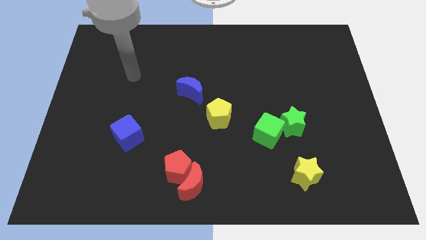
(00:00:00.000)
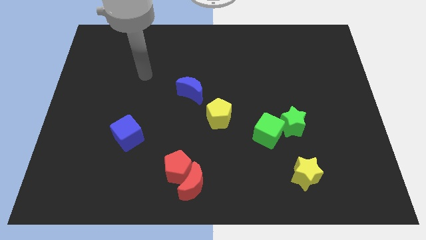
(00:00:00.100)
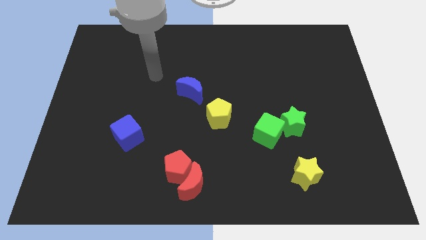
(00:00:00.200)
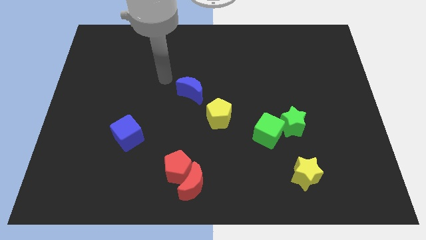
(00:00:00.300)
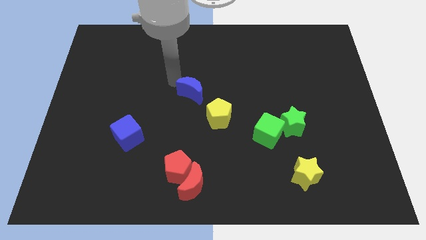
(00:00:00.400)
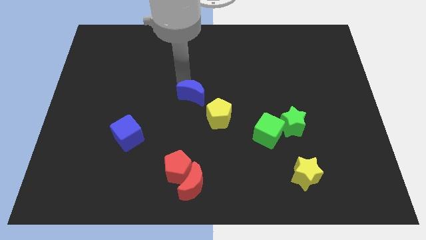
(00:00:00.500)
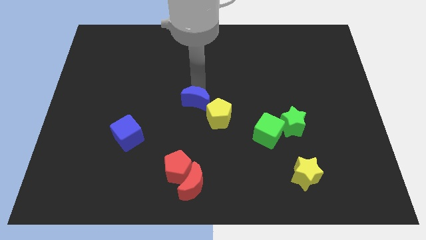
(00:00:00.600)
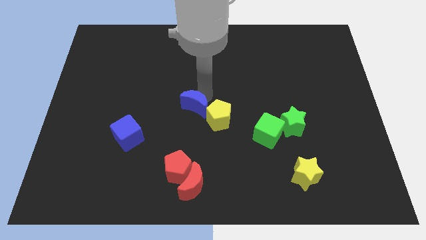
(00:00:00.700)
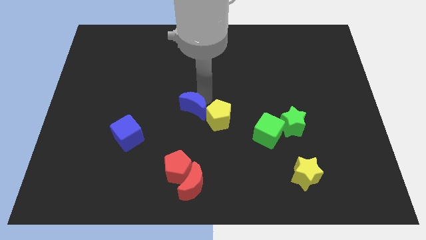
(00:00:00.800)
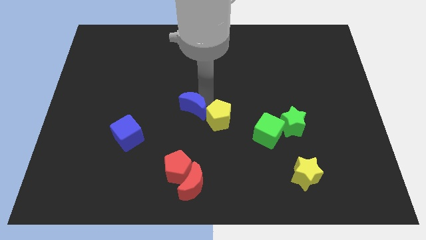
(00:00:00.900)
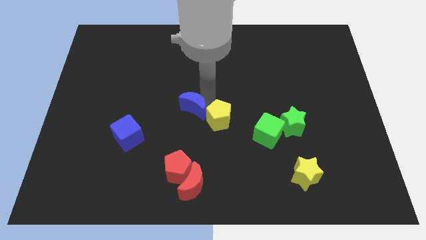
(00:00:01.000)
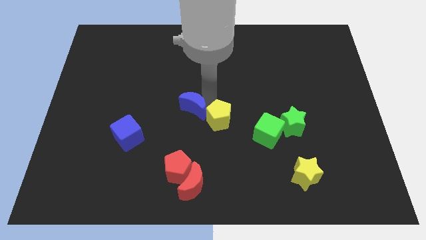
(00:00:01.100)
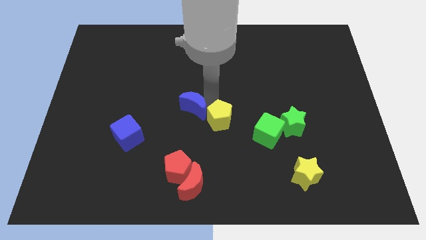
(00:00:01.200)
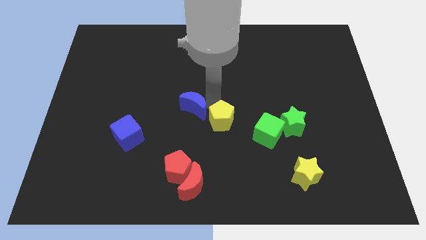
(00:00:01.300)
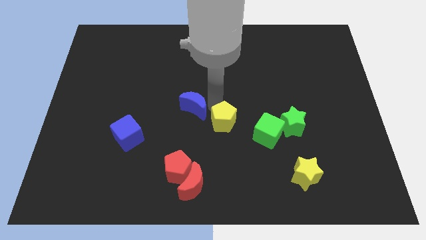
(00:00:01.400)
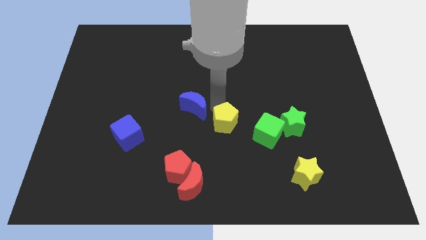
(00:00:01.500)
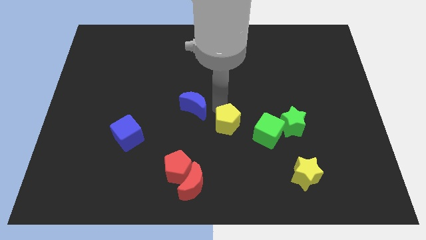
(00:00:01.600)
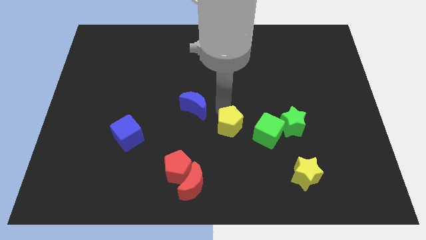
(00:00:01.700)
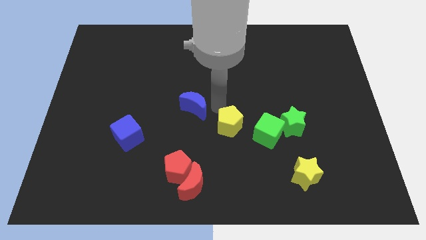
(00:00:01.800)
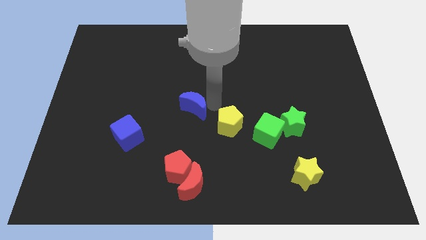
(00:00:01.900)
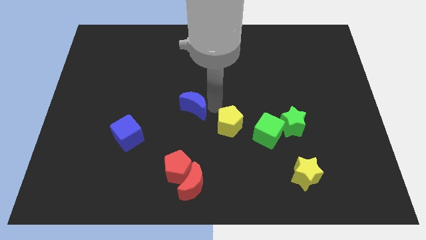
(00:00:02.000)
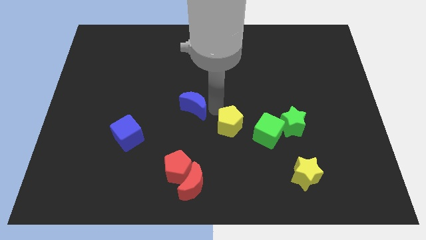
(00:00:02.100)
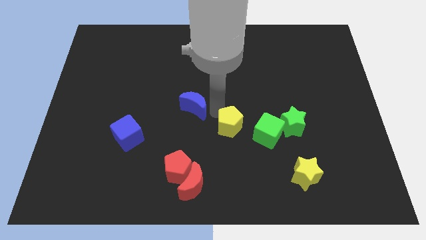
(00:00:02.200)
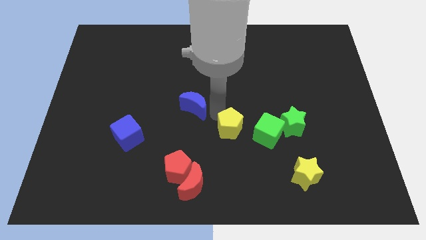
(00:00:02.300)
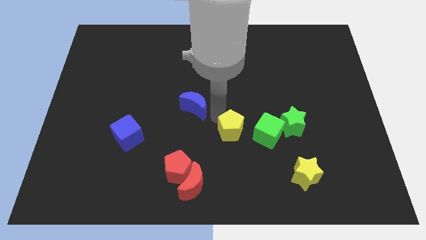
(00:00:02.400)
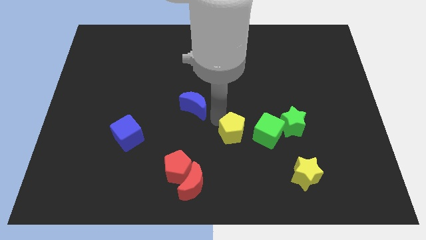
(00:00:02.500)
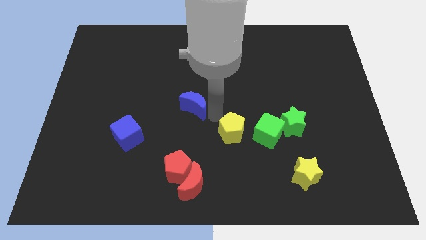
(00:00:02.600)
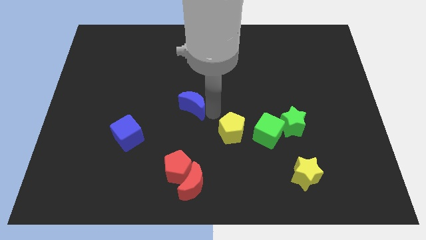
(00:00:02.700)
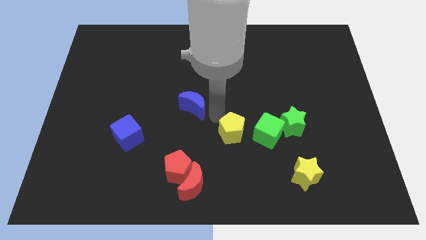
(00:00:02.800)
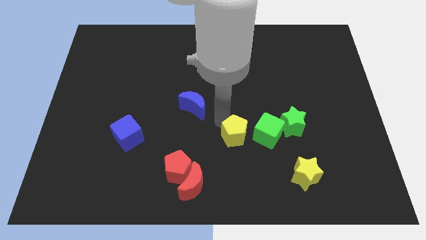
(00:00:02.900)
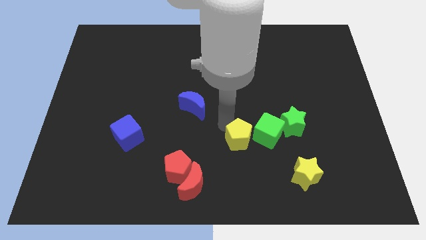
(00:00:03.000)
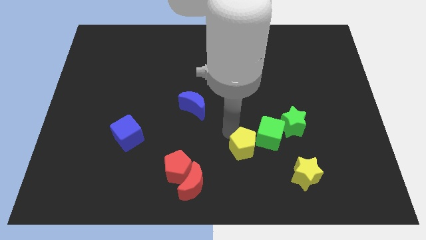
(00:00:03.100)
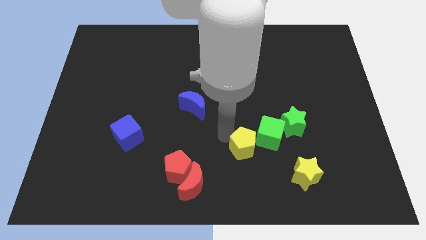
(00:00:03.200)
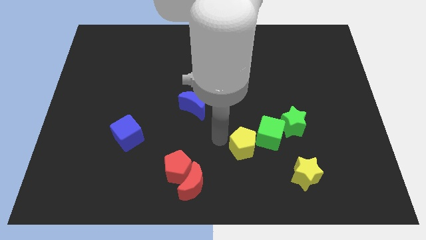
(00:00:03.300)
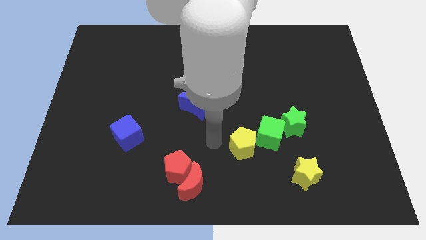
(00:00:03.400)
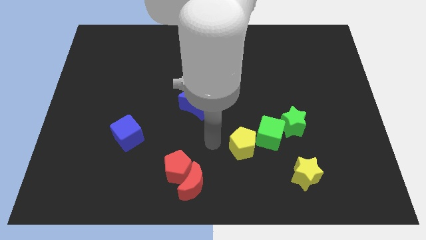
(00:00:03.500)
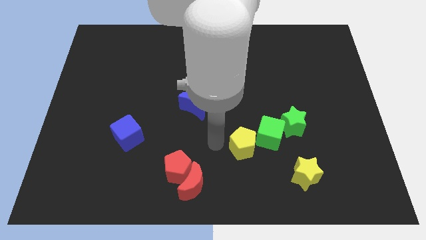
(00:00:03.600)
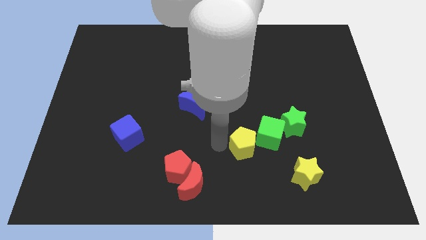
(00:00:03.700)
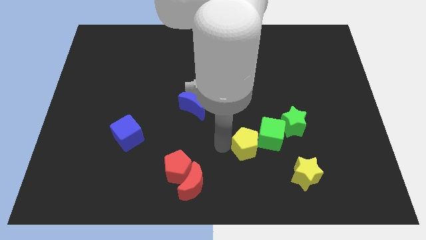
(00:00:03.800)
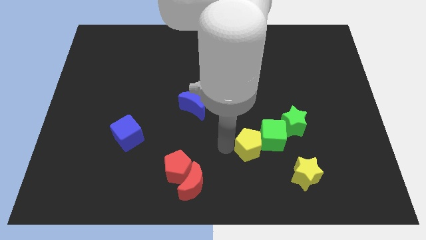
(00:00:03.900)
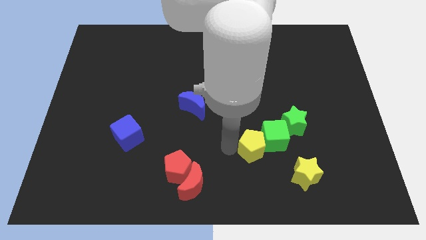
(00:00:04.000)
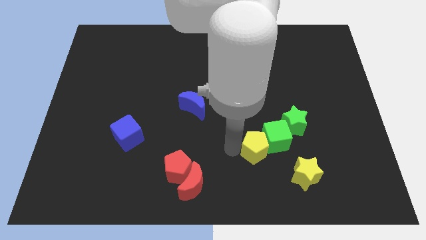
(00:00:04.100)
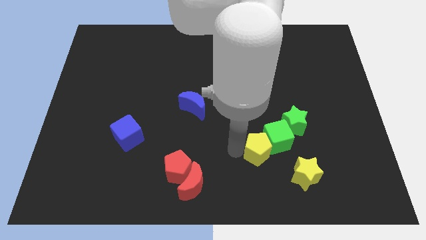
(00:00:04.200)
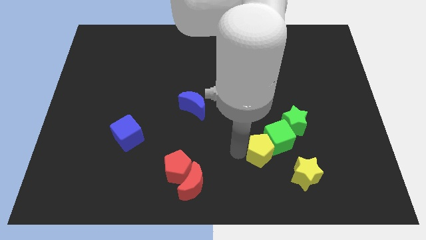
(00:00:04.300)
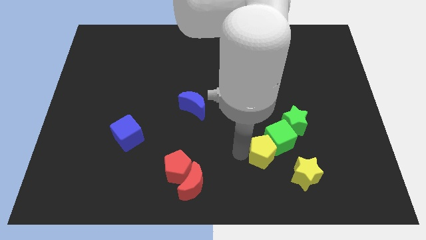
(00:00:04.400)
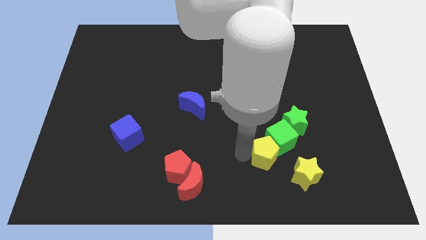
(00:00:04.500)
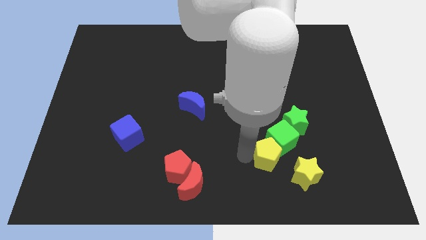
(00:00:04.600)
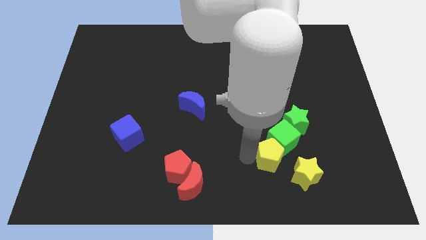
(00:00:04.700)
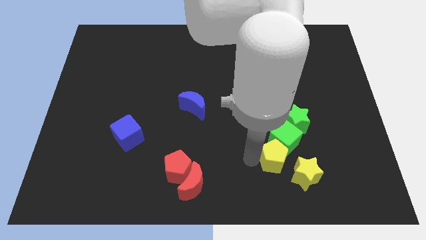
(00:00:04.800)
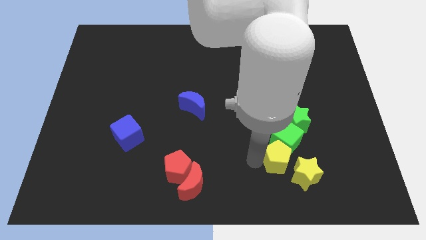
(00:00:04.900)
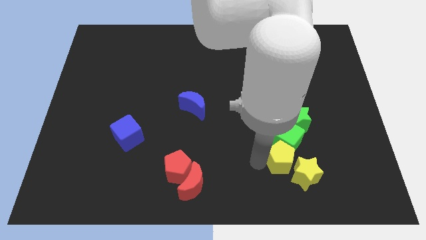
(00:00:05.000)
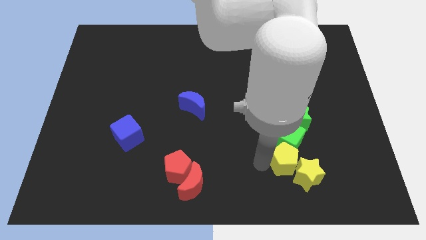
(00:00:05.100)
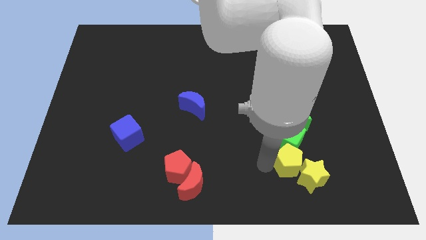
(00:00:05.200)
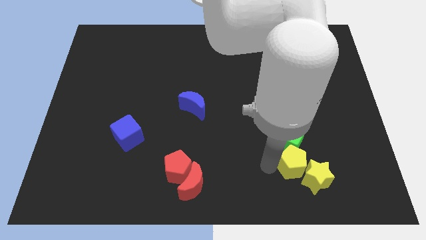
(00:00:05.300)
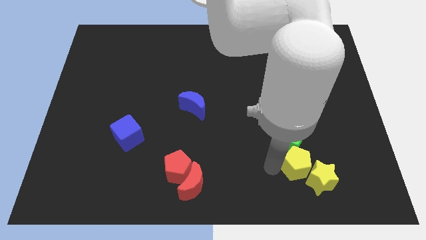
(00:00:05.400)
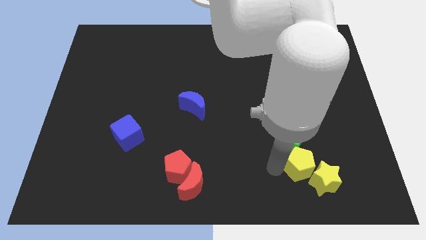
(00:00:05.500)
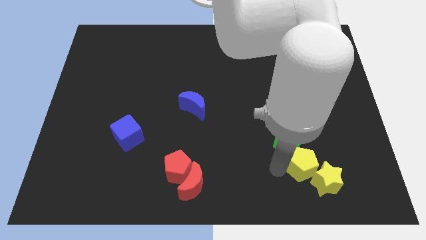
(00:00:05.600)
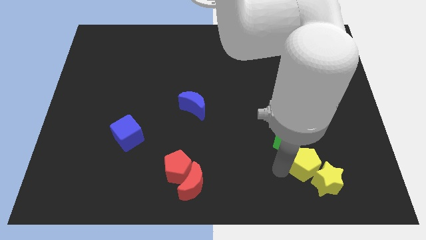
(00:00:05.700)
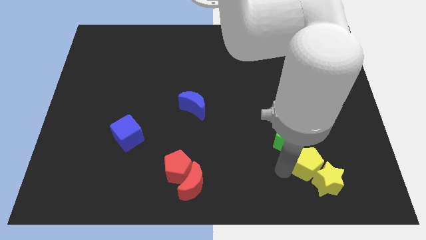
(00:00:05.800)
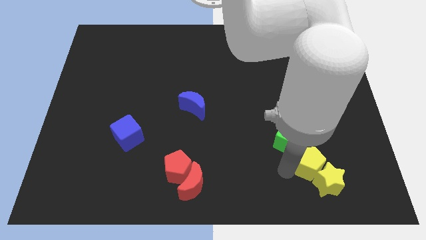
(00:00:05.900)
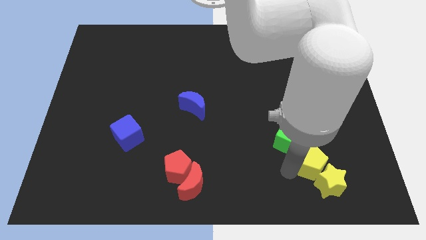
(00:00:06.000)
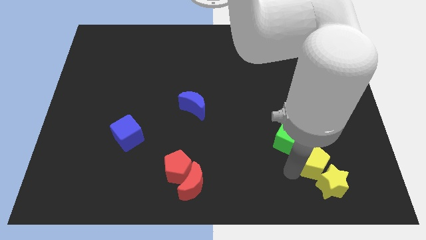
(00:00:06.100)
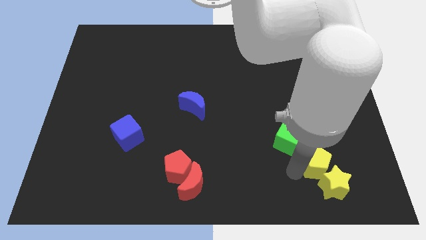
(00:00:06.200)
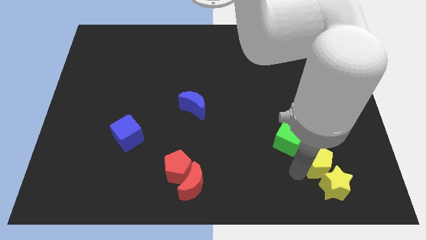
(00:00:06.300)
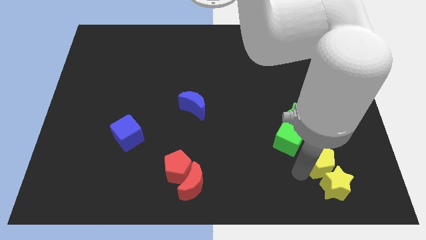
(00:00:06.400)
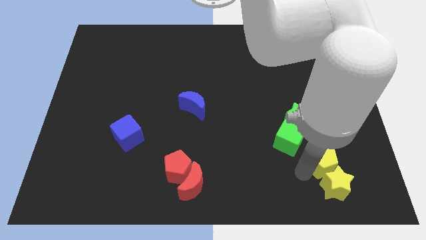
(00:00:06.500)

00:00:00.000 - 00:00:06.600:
put the yellow pentagon to the top right side of the yellow star

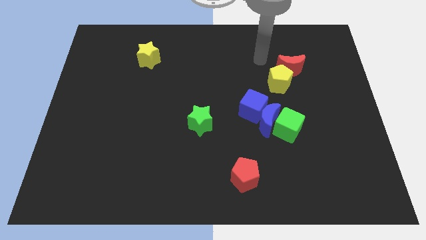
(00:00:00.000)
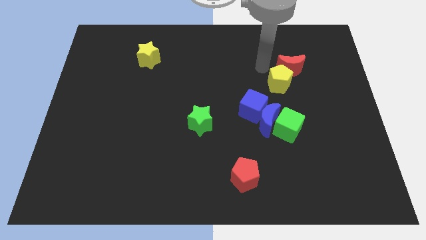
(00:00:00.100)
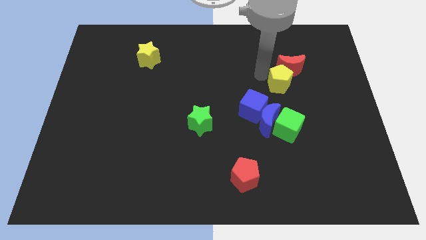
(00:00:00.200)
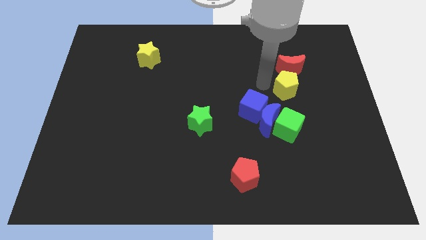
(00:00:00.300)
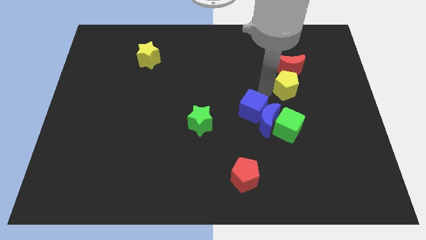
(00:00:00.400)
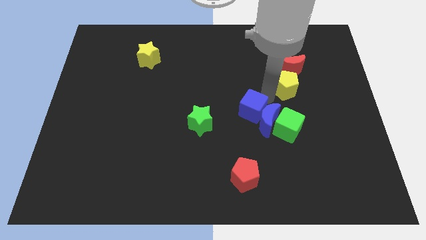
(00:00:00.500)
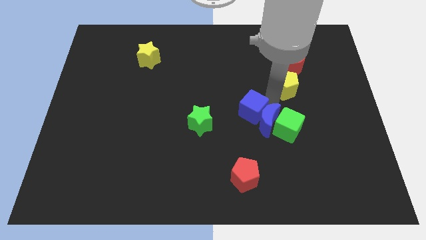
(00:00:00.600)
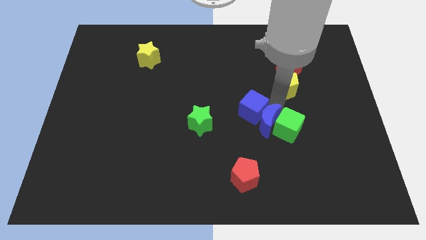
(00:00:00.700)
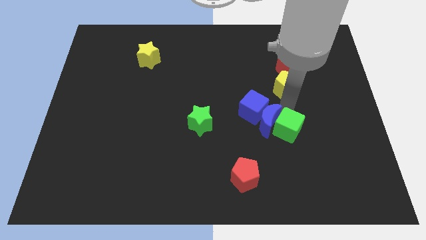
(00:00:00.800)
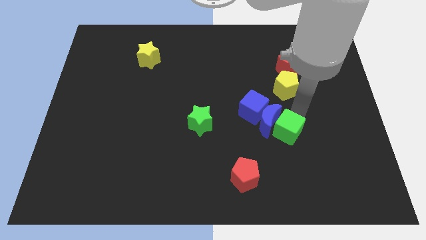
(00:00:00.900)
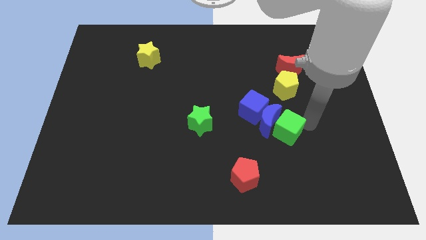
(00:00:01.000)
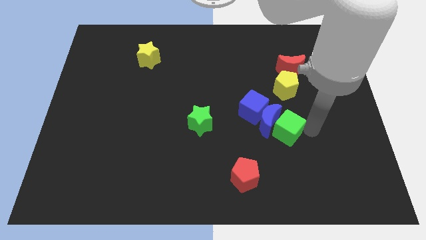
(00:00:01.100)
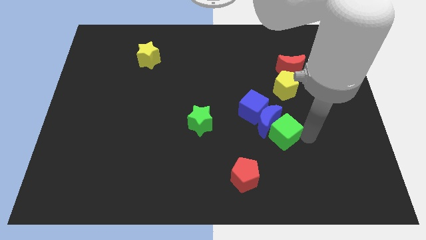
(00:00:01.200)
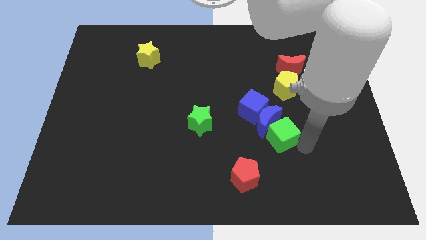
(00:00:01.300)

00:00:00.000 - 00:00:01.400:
move the red pentagon to the bottom left of the green cube

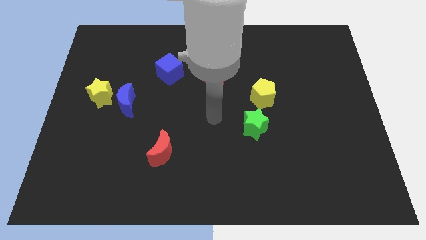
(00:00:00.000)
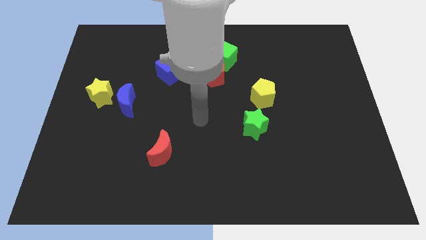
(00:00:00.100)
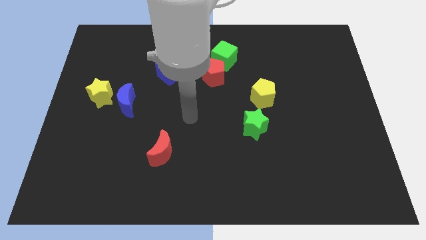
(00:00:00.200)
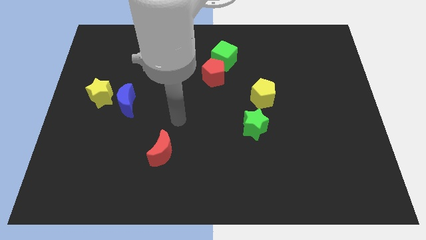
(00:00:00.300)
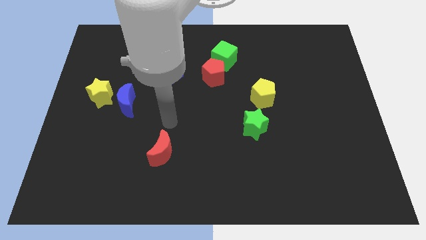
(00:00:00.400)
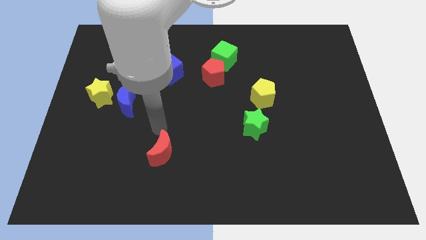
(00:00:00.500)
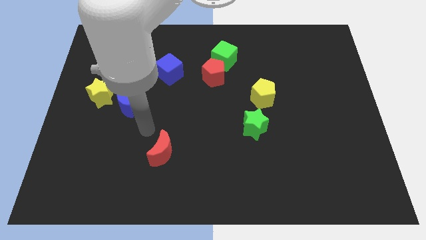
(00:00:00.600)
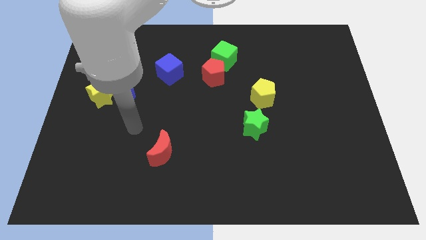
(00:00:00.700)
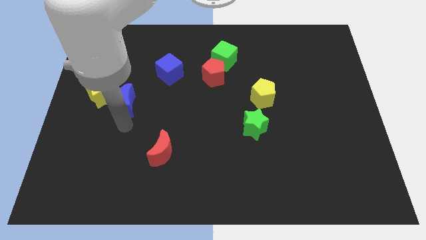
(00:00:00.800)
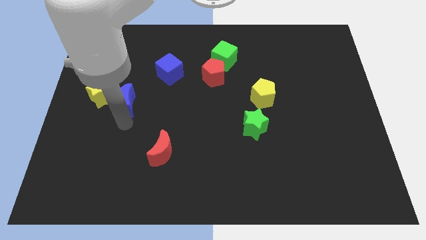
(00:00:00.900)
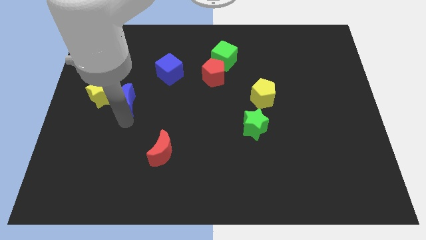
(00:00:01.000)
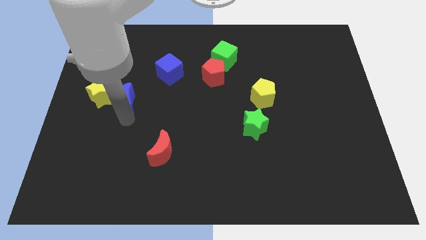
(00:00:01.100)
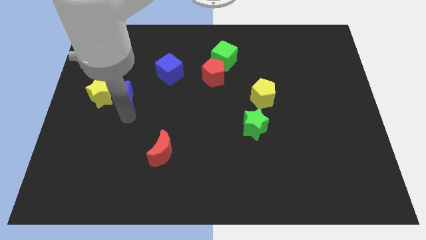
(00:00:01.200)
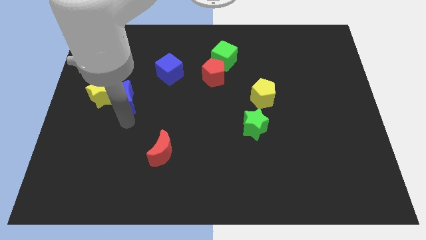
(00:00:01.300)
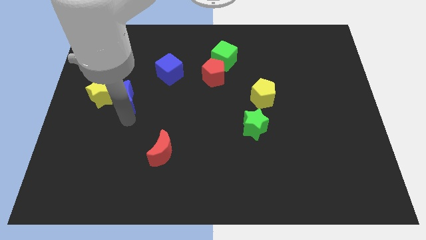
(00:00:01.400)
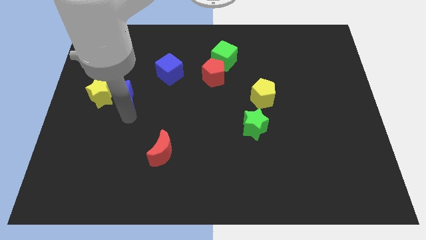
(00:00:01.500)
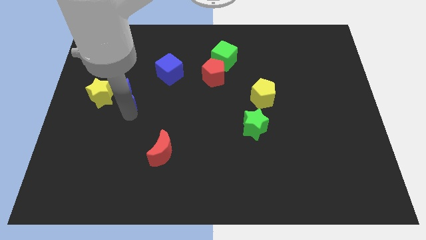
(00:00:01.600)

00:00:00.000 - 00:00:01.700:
slide the blue moon diagonally up and to the right of the yellow star
